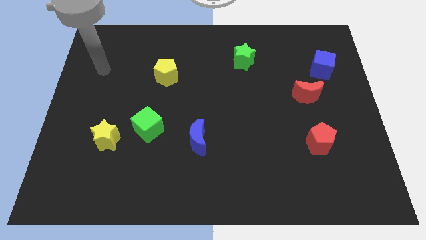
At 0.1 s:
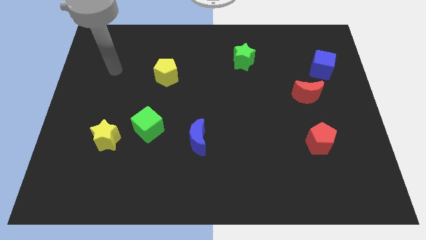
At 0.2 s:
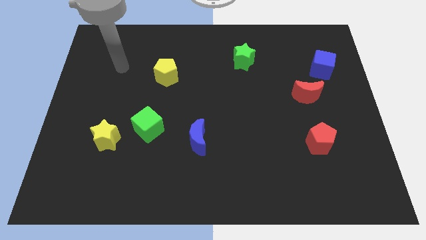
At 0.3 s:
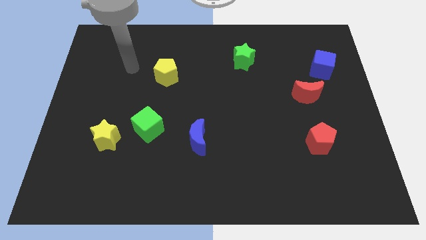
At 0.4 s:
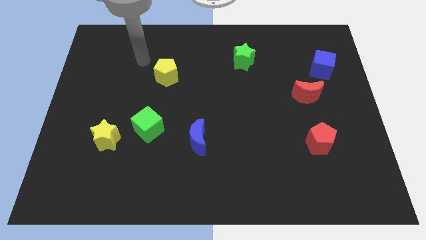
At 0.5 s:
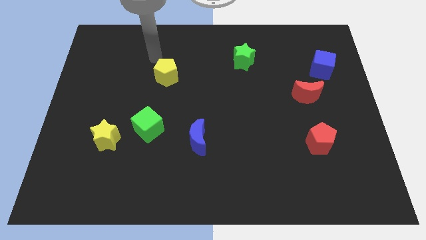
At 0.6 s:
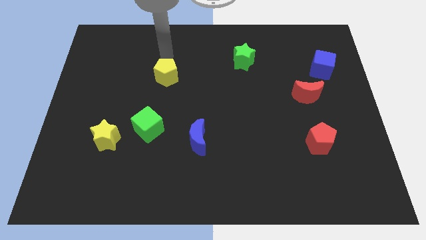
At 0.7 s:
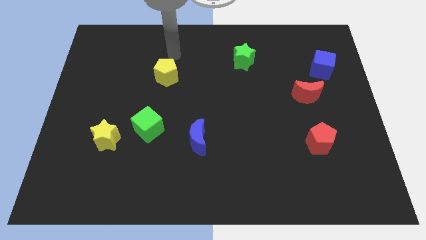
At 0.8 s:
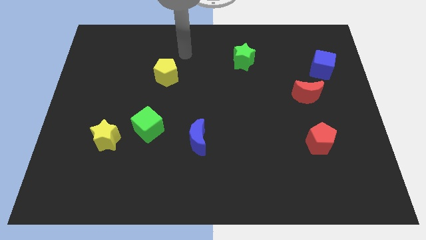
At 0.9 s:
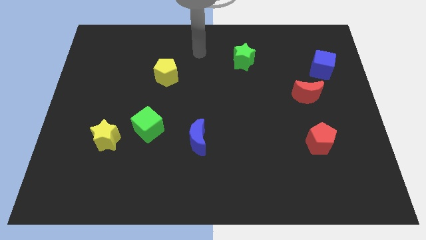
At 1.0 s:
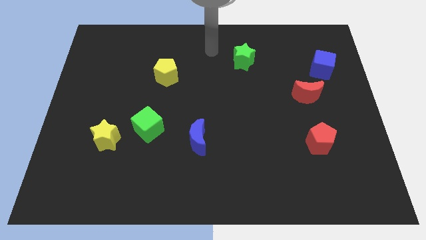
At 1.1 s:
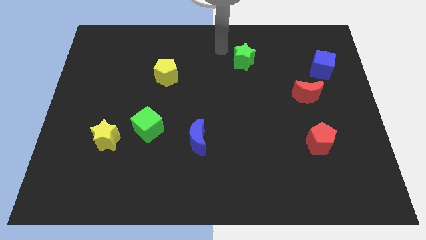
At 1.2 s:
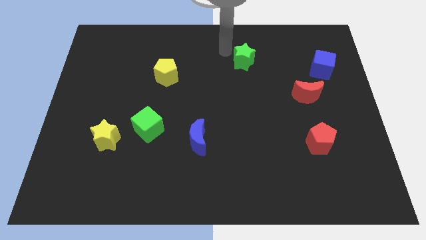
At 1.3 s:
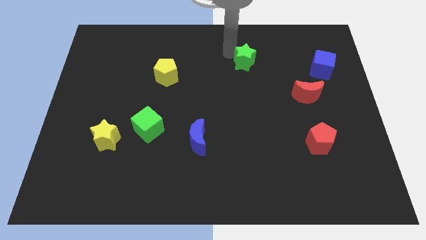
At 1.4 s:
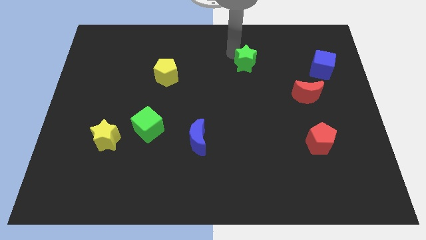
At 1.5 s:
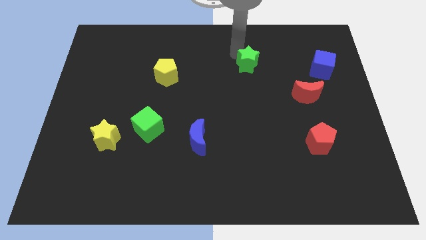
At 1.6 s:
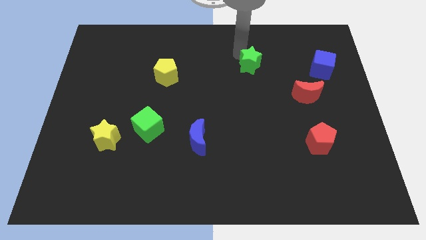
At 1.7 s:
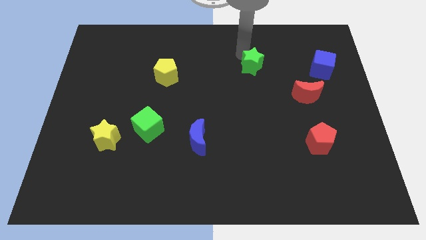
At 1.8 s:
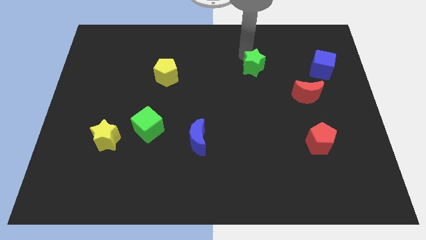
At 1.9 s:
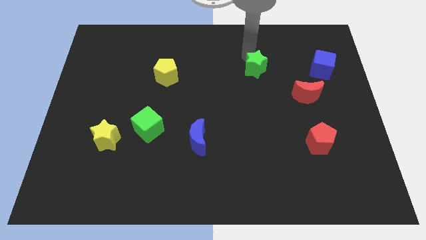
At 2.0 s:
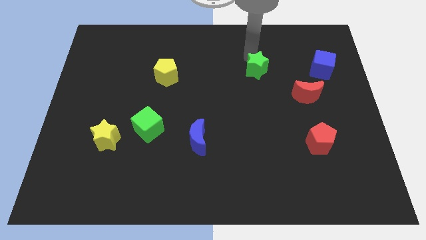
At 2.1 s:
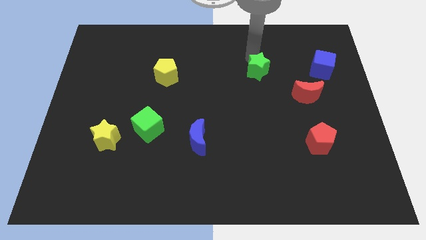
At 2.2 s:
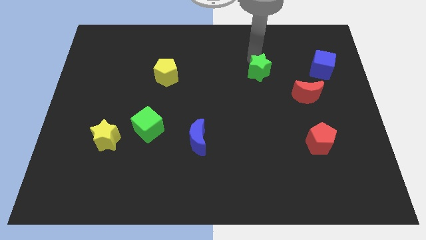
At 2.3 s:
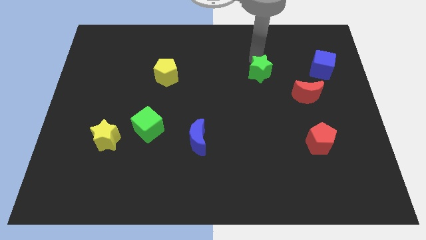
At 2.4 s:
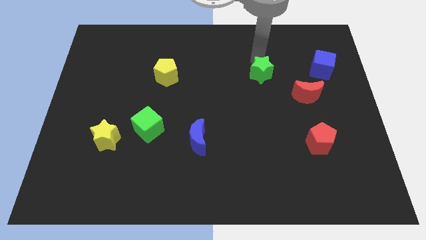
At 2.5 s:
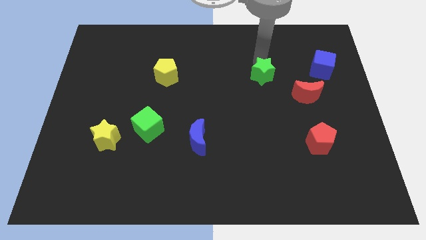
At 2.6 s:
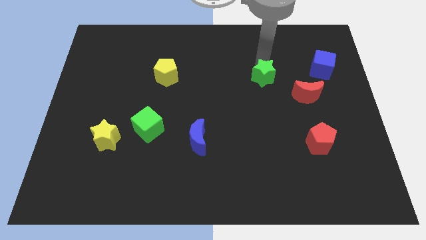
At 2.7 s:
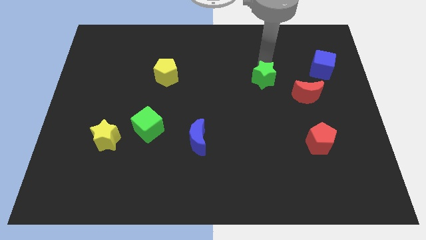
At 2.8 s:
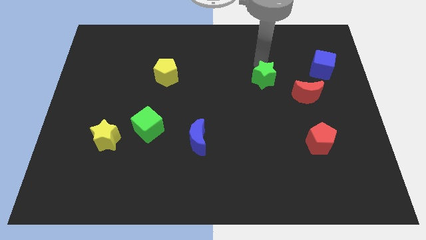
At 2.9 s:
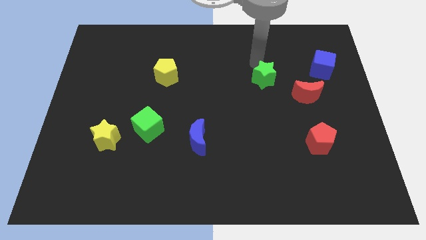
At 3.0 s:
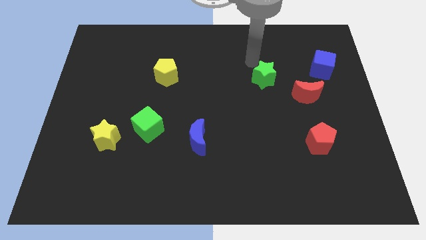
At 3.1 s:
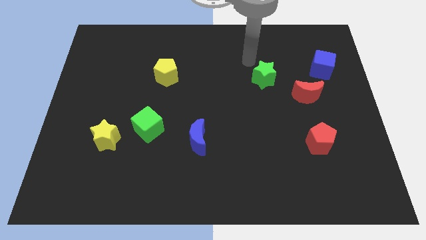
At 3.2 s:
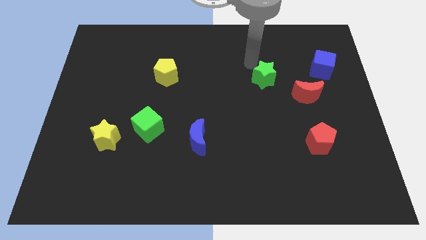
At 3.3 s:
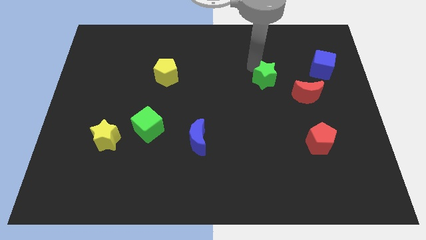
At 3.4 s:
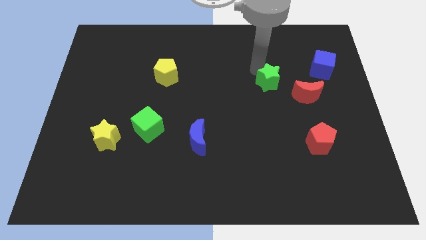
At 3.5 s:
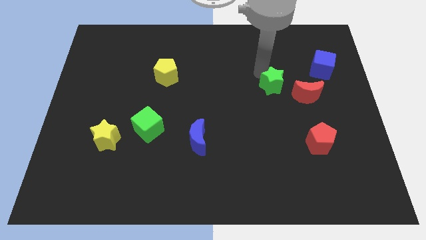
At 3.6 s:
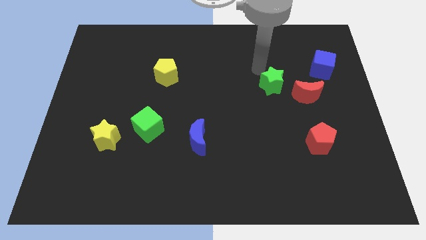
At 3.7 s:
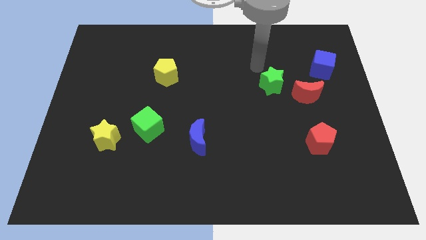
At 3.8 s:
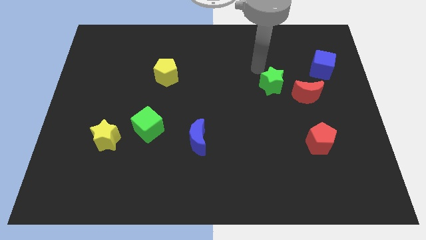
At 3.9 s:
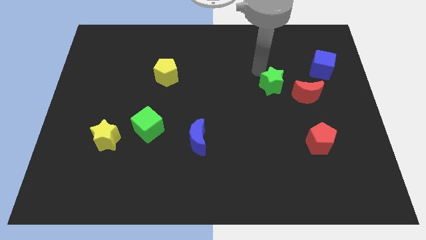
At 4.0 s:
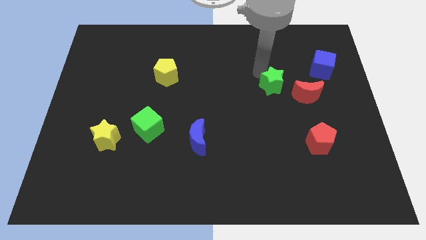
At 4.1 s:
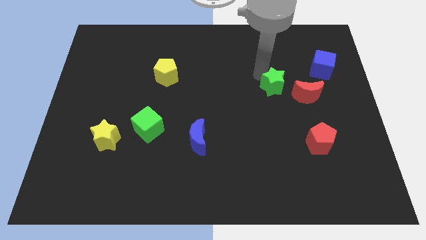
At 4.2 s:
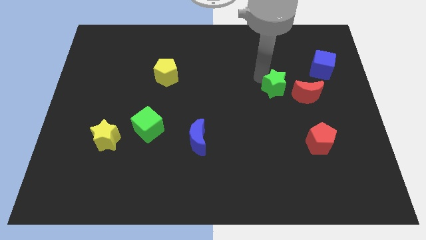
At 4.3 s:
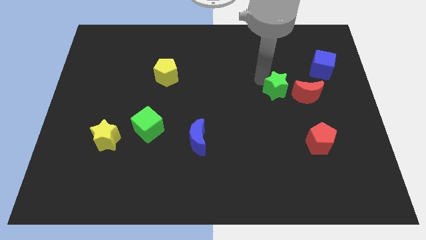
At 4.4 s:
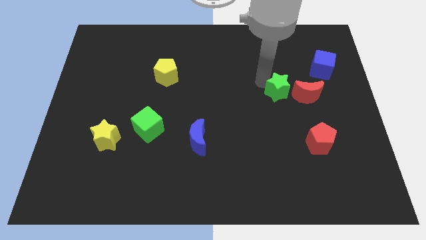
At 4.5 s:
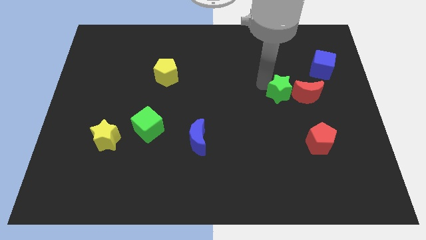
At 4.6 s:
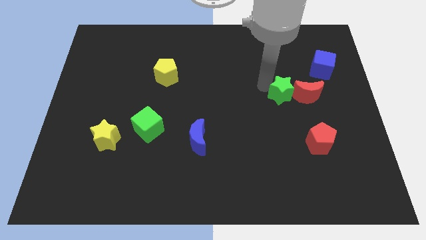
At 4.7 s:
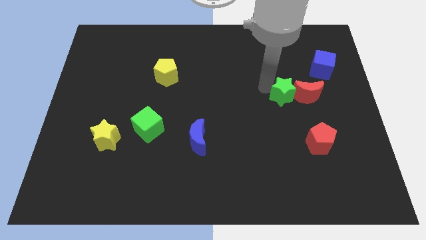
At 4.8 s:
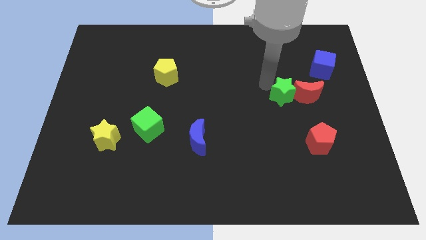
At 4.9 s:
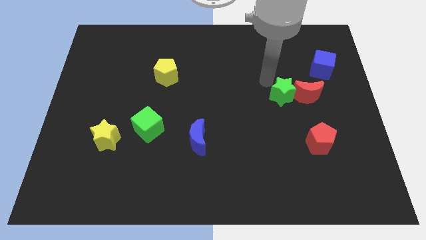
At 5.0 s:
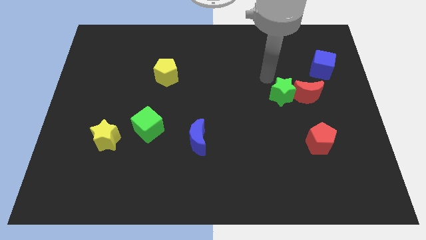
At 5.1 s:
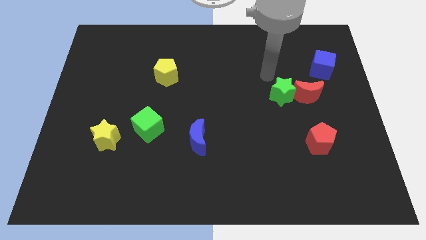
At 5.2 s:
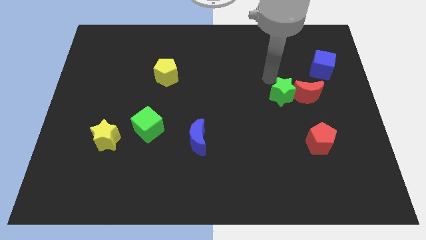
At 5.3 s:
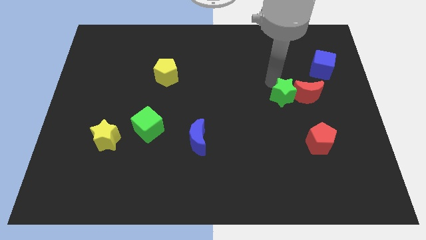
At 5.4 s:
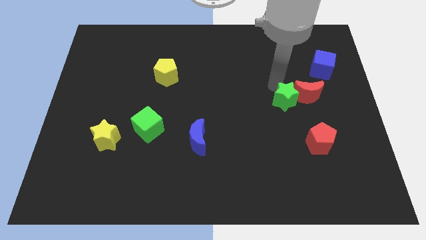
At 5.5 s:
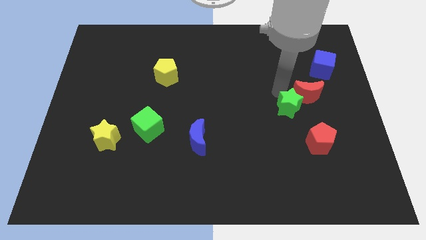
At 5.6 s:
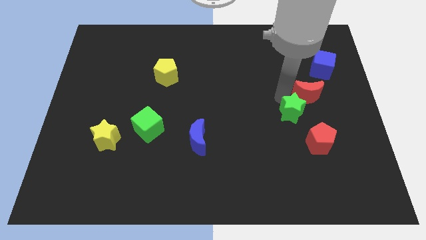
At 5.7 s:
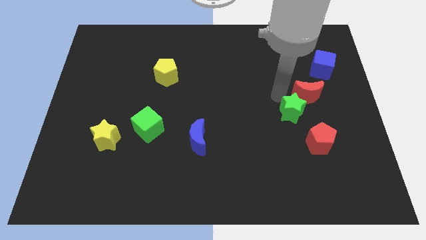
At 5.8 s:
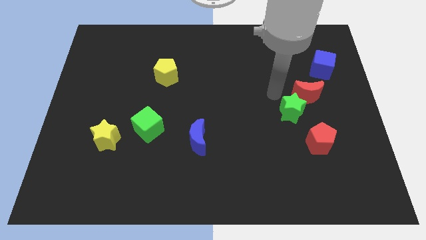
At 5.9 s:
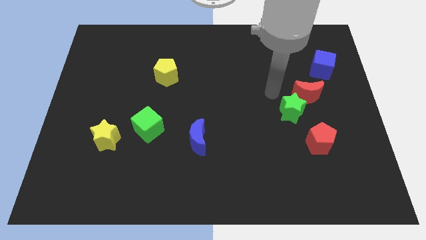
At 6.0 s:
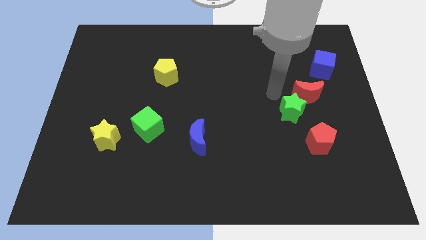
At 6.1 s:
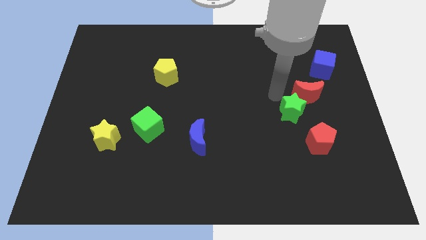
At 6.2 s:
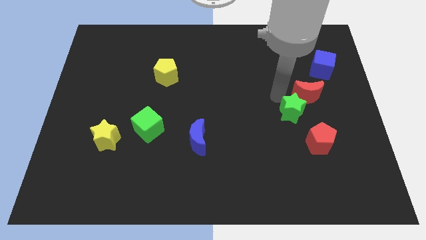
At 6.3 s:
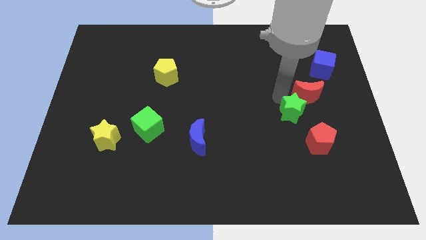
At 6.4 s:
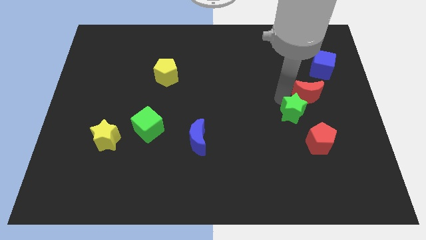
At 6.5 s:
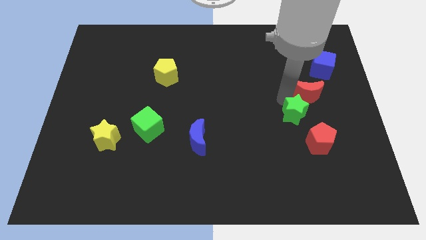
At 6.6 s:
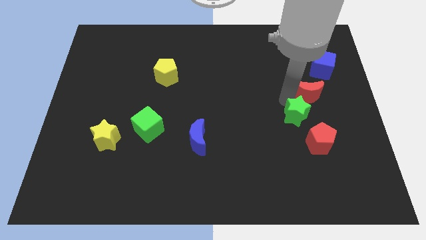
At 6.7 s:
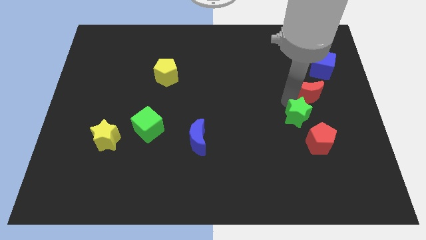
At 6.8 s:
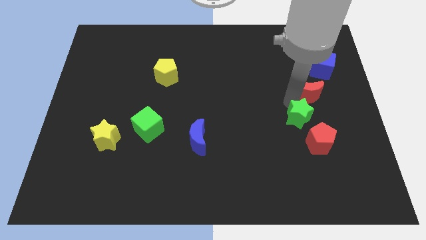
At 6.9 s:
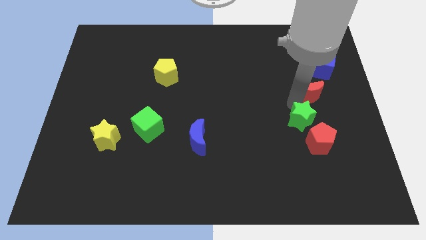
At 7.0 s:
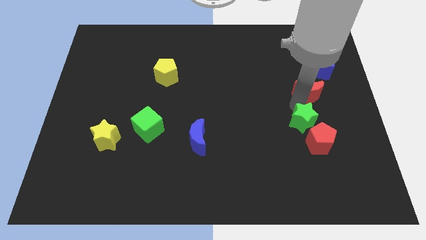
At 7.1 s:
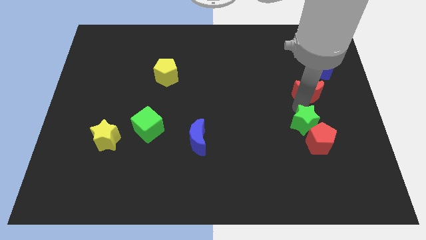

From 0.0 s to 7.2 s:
put the green star close to the red pentagon

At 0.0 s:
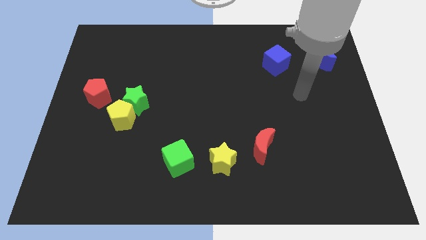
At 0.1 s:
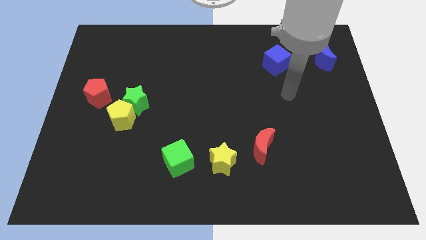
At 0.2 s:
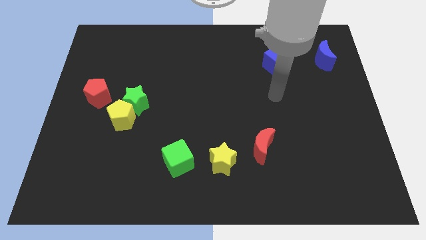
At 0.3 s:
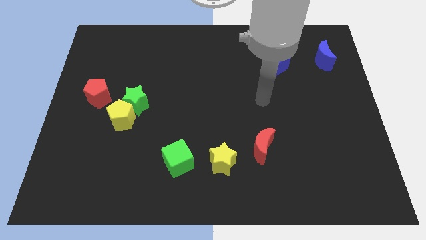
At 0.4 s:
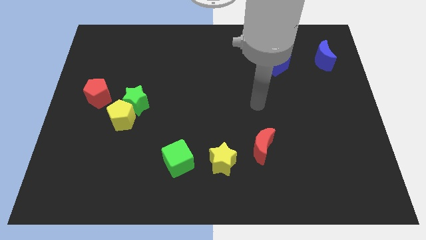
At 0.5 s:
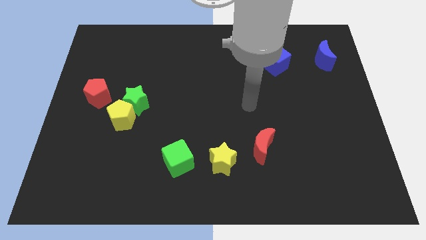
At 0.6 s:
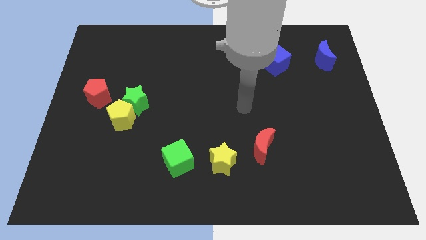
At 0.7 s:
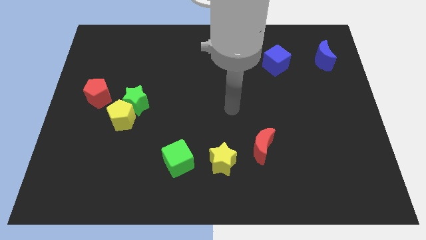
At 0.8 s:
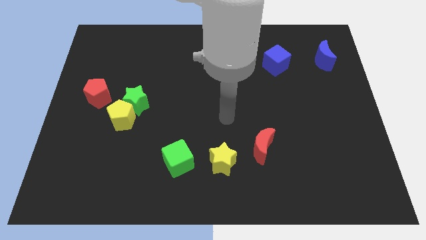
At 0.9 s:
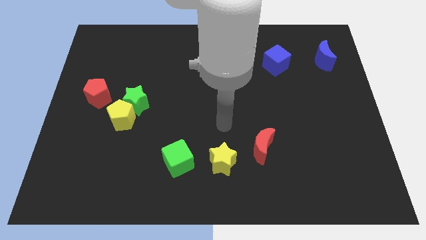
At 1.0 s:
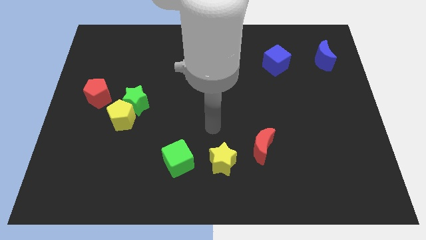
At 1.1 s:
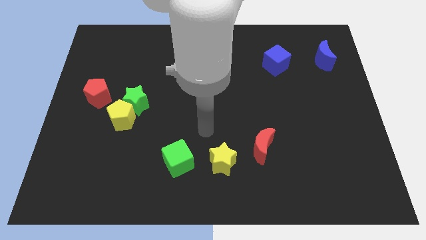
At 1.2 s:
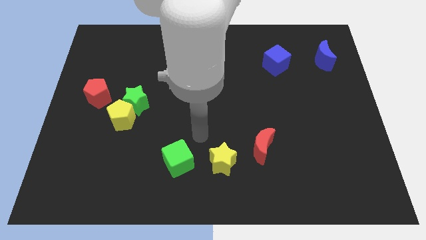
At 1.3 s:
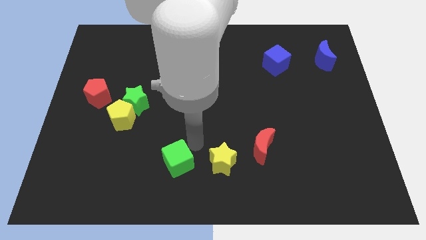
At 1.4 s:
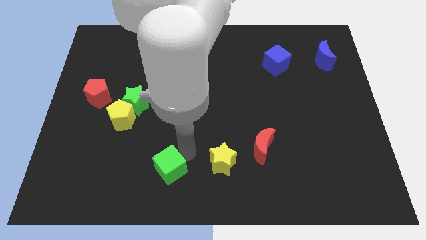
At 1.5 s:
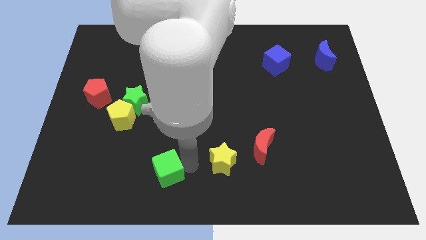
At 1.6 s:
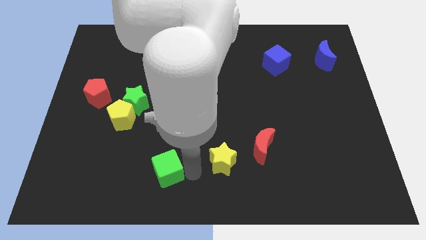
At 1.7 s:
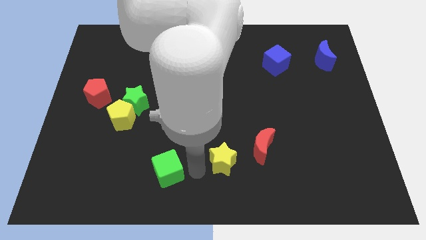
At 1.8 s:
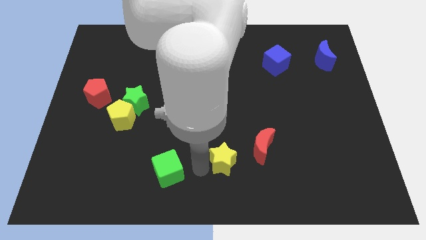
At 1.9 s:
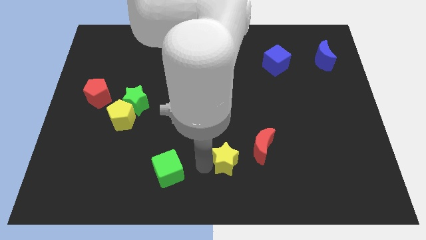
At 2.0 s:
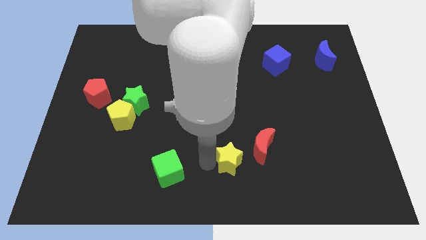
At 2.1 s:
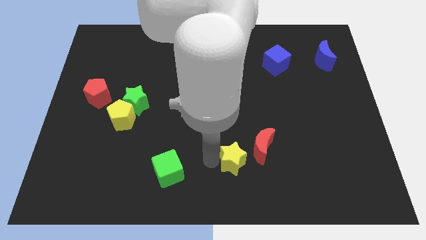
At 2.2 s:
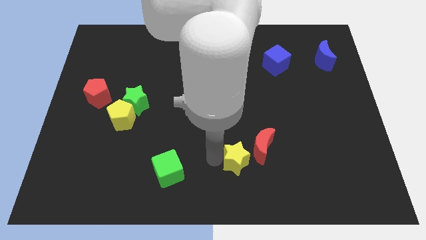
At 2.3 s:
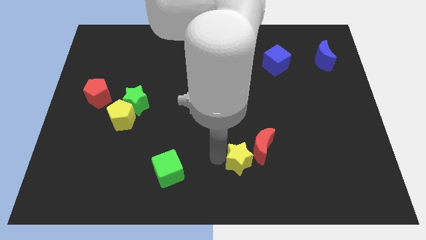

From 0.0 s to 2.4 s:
push the yellow star close to the red moon
